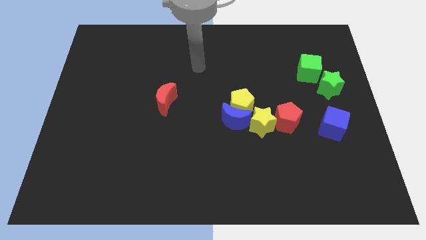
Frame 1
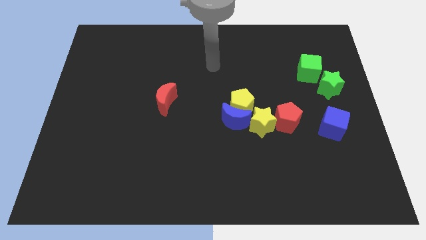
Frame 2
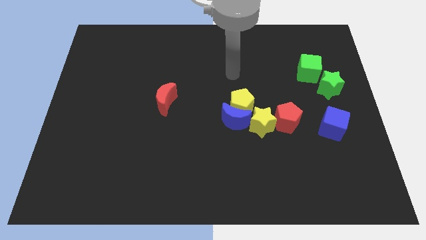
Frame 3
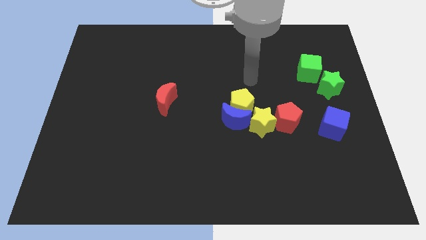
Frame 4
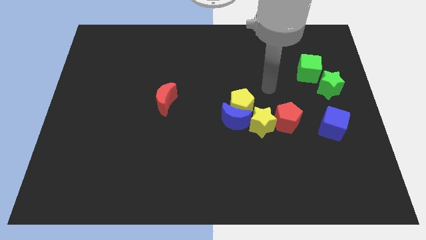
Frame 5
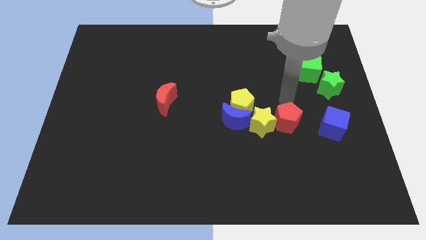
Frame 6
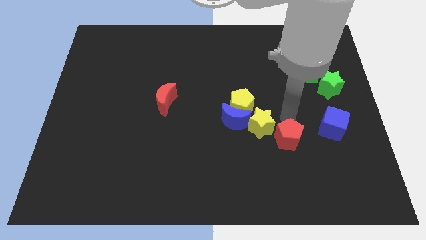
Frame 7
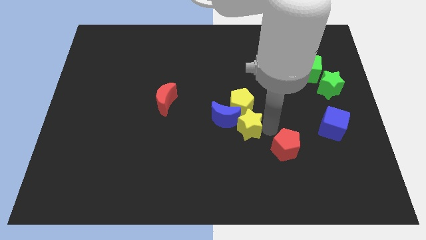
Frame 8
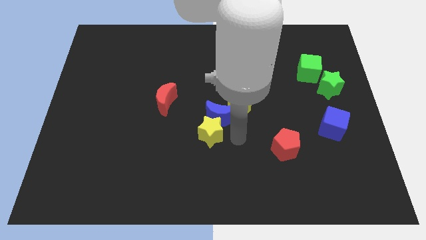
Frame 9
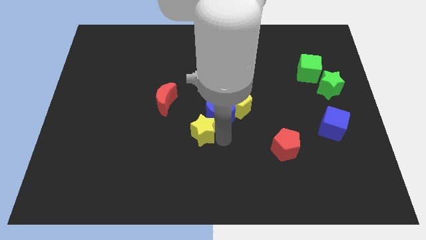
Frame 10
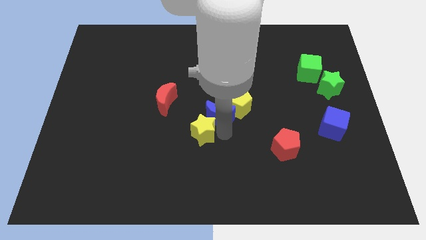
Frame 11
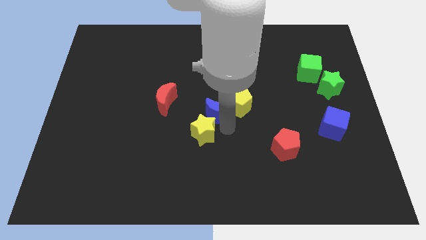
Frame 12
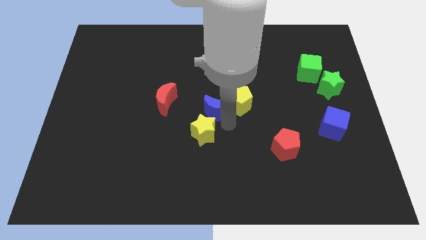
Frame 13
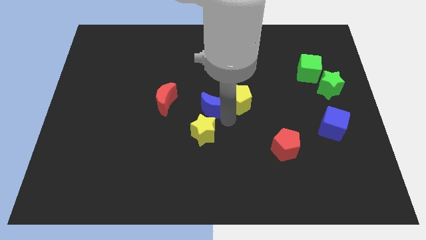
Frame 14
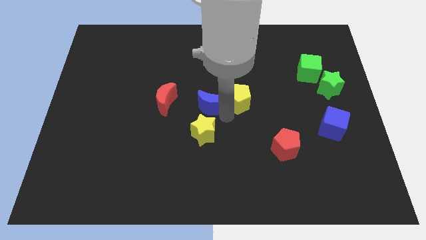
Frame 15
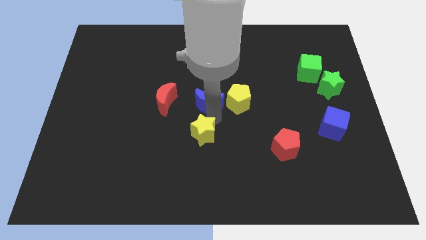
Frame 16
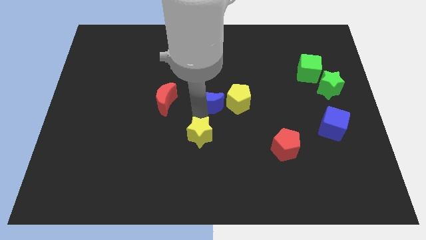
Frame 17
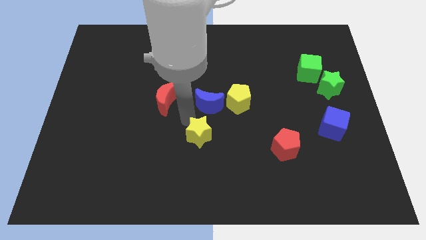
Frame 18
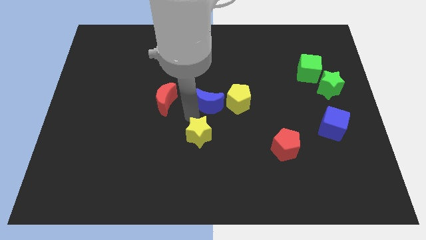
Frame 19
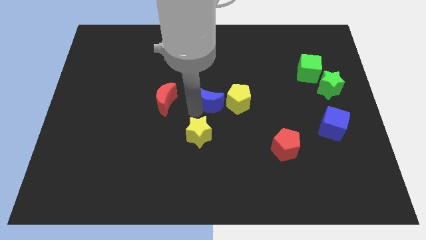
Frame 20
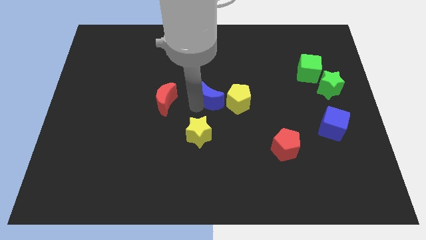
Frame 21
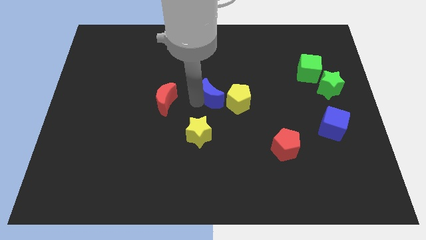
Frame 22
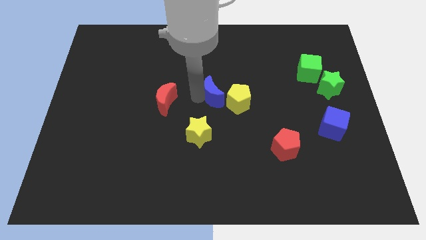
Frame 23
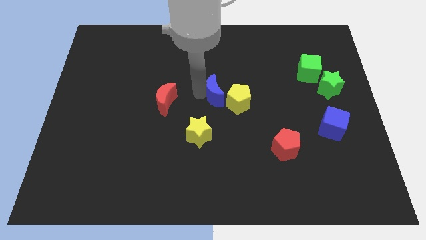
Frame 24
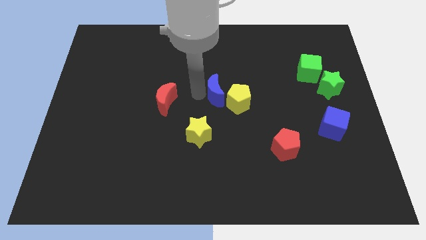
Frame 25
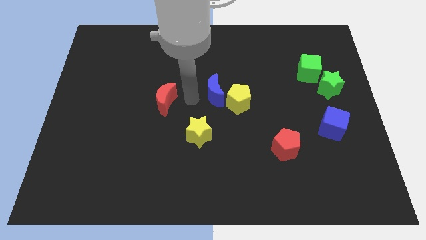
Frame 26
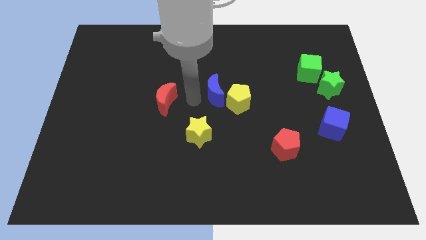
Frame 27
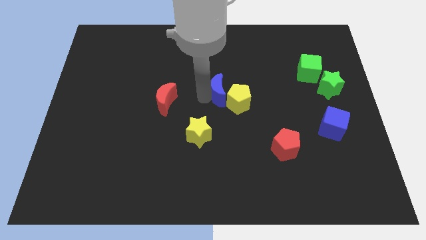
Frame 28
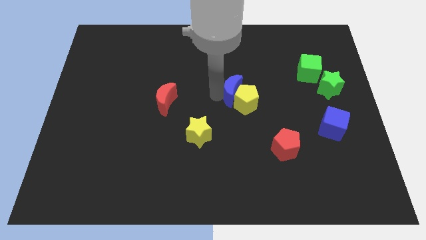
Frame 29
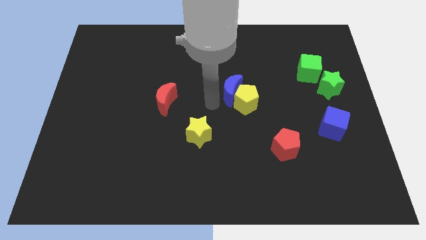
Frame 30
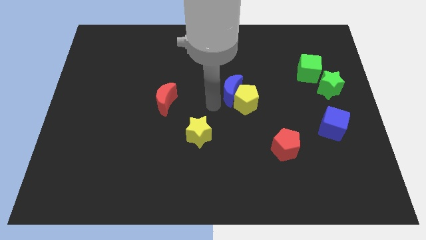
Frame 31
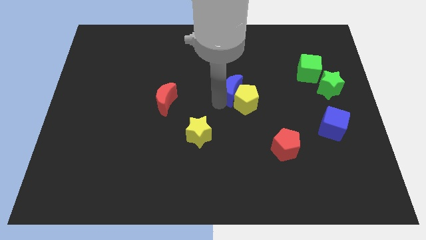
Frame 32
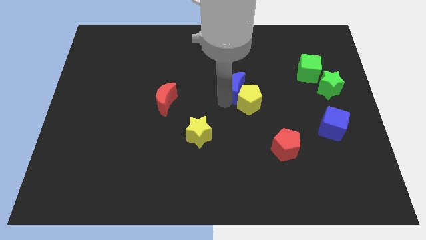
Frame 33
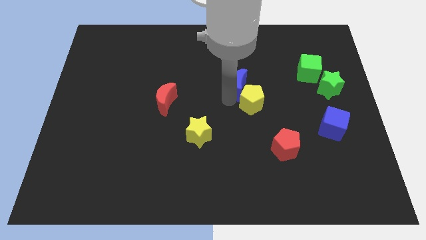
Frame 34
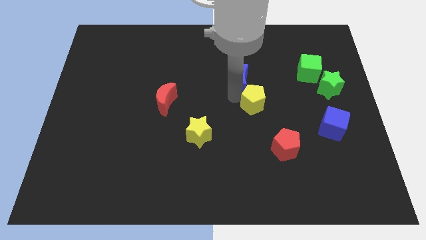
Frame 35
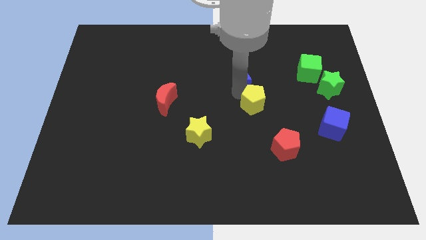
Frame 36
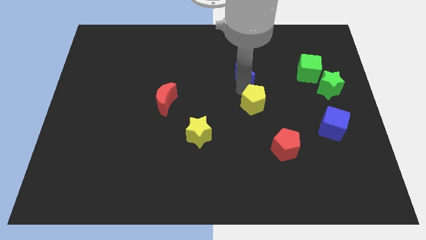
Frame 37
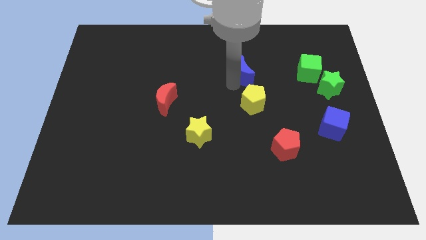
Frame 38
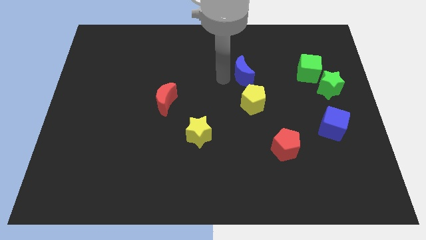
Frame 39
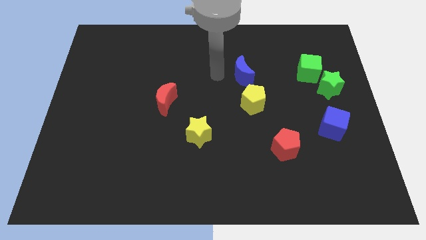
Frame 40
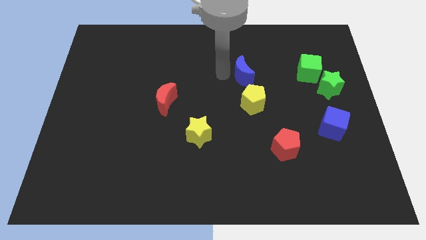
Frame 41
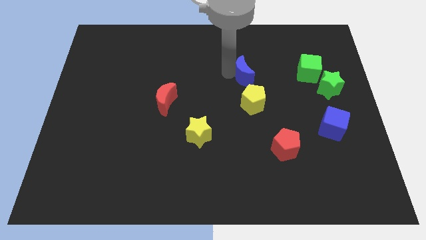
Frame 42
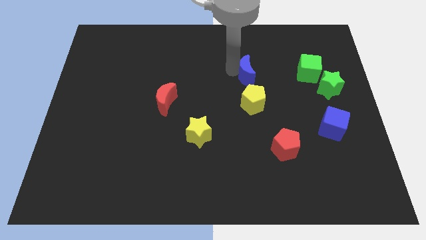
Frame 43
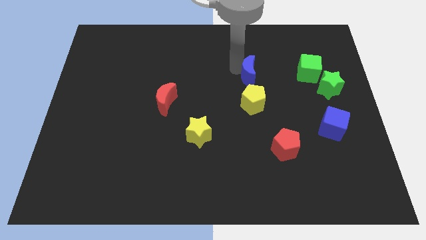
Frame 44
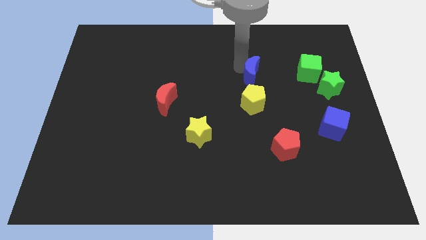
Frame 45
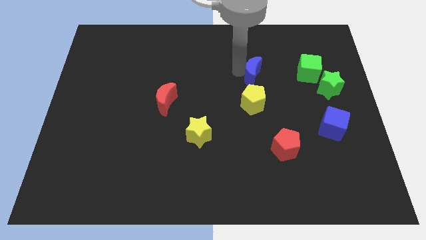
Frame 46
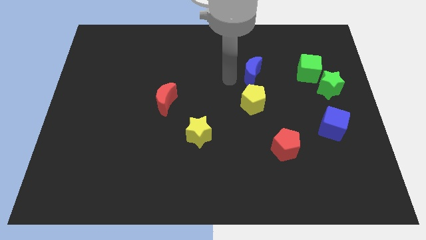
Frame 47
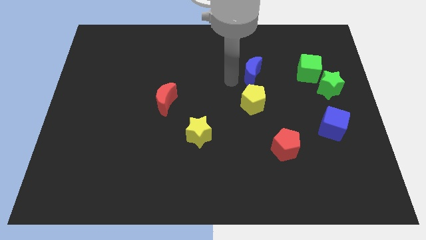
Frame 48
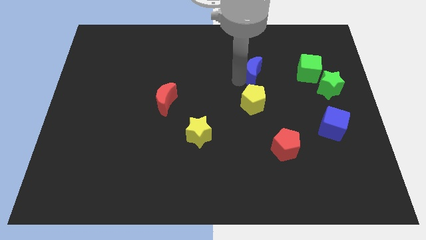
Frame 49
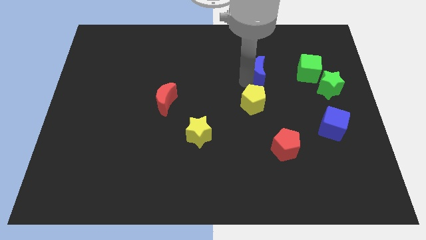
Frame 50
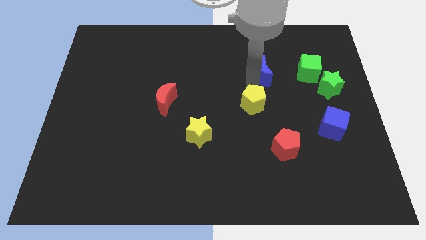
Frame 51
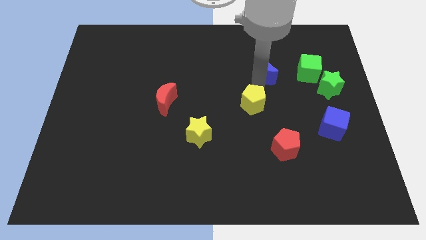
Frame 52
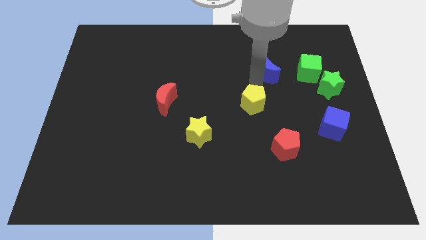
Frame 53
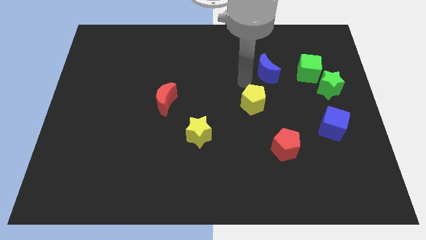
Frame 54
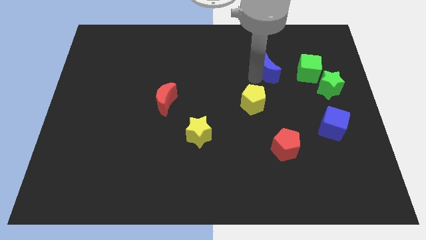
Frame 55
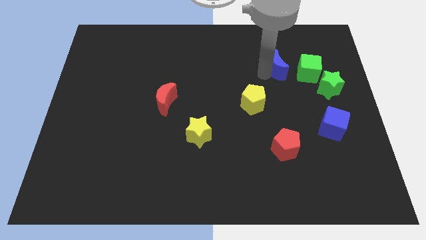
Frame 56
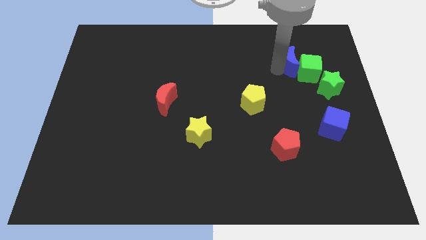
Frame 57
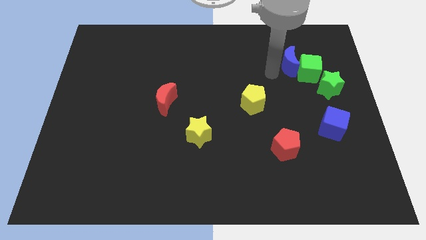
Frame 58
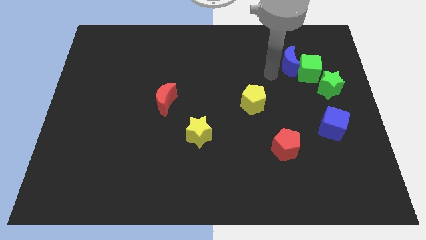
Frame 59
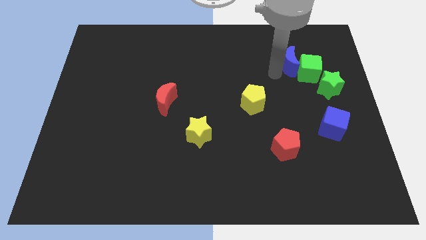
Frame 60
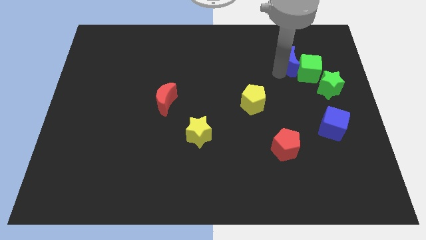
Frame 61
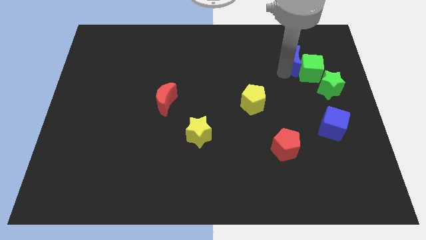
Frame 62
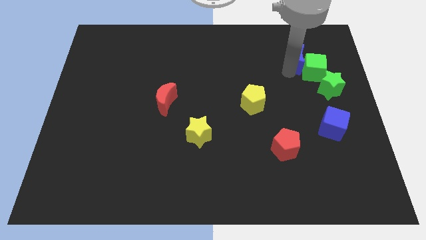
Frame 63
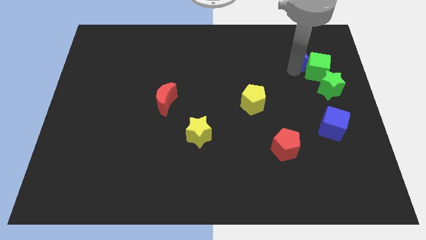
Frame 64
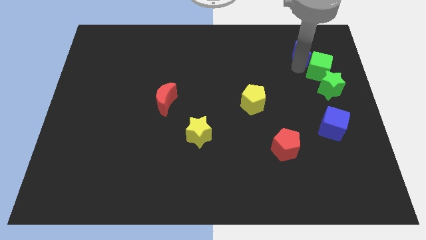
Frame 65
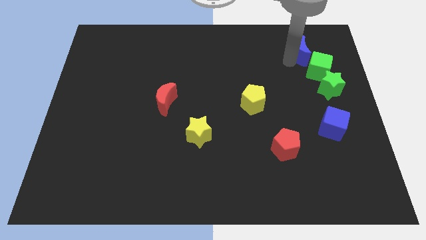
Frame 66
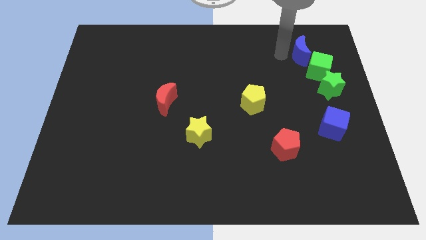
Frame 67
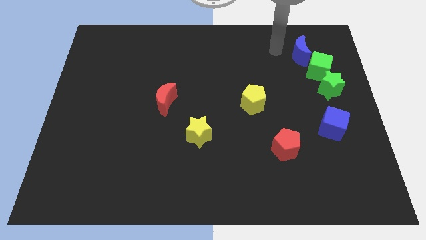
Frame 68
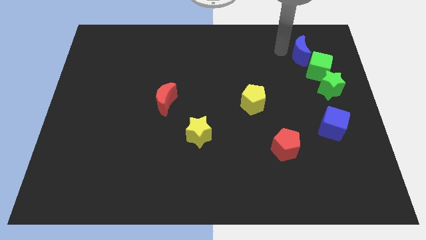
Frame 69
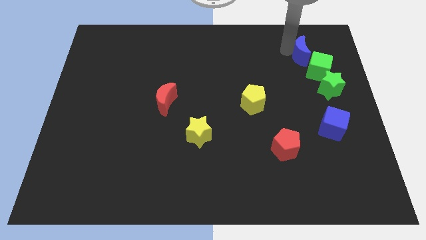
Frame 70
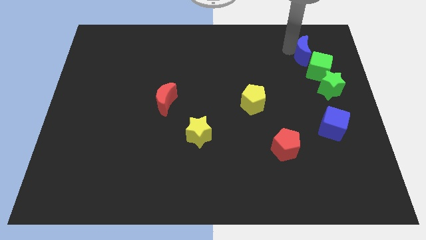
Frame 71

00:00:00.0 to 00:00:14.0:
push the blue moon above the green star

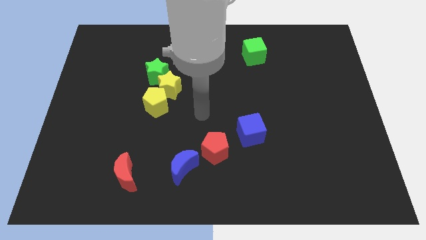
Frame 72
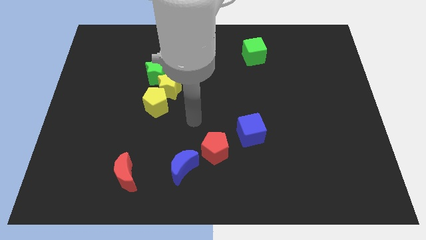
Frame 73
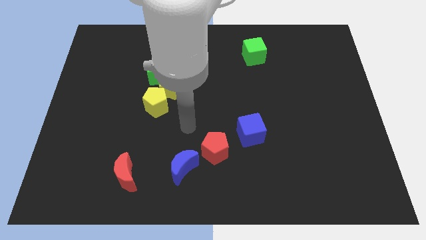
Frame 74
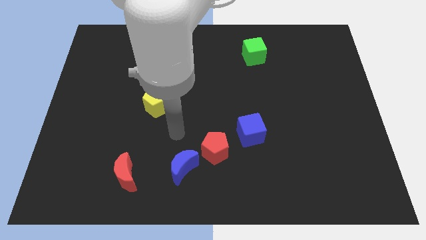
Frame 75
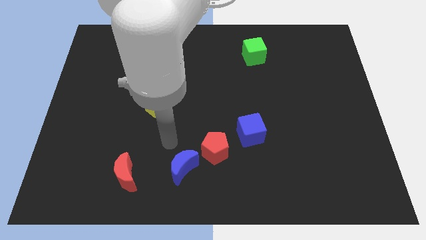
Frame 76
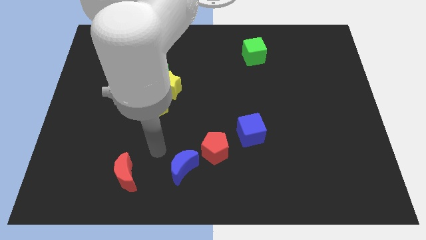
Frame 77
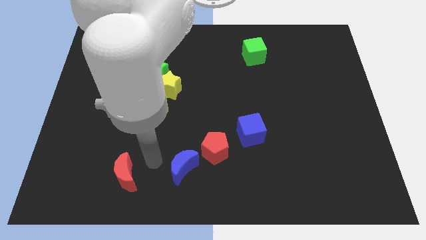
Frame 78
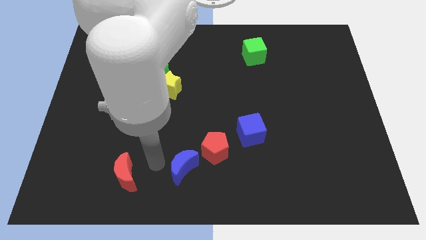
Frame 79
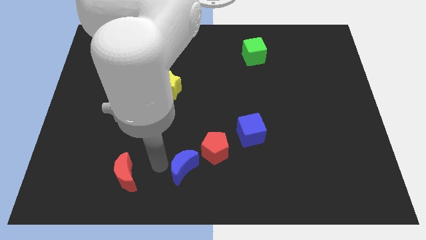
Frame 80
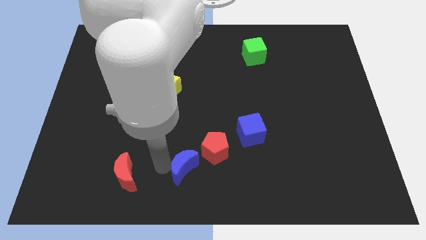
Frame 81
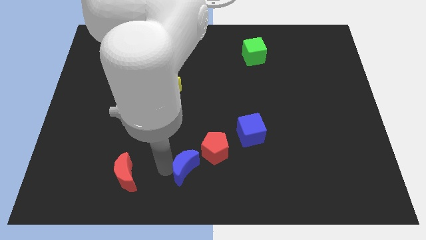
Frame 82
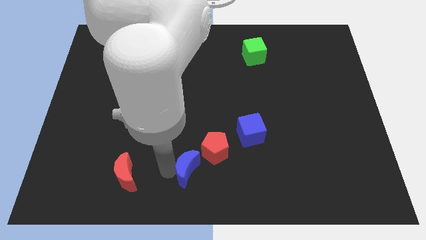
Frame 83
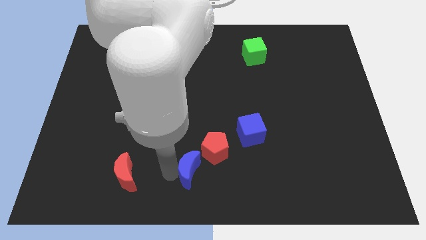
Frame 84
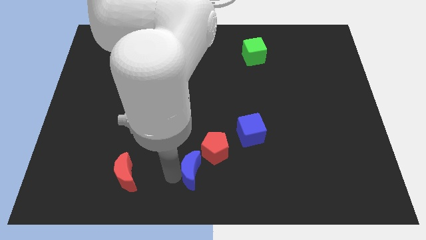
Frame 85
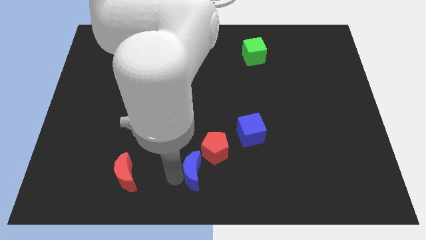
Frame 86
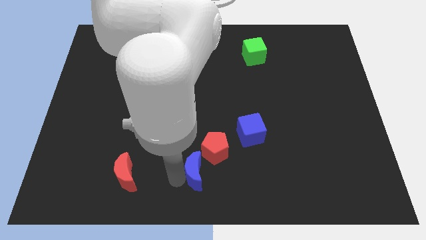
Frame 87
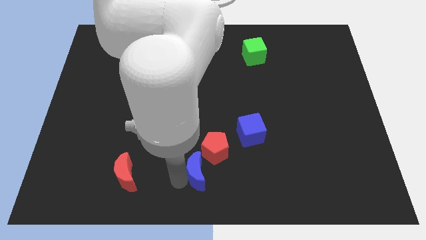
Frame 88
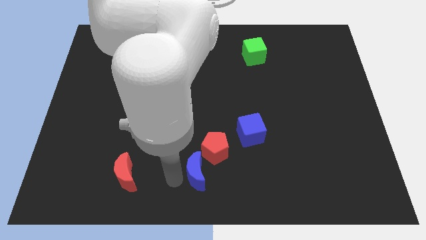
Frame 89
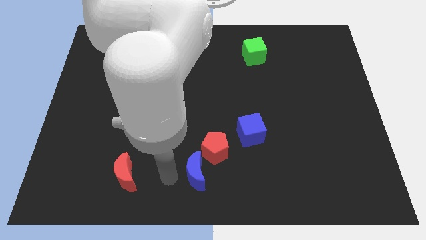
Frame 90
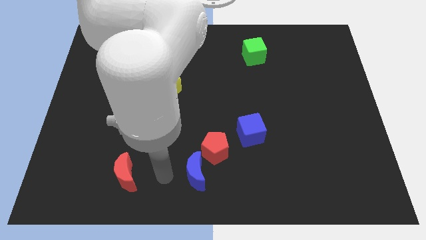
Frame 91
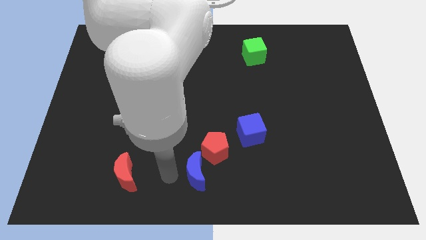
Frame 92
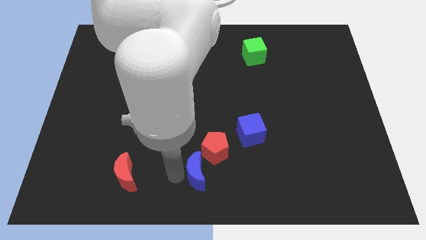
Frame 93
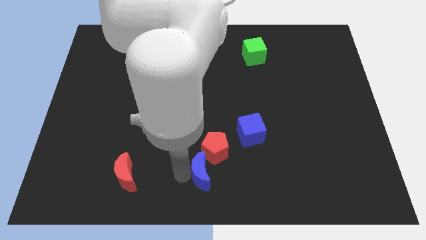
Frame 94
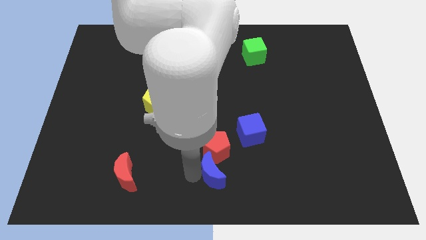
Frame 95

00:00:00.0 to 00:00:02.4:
slide the blue moon to the bottom right side of the red pentagon
